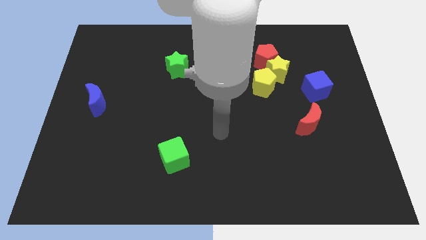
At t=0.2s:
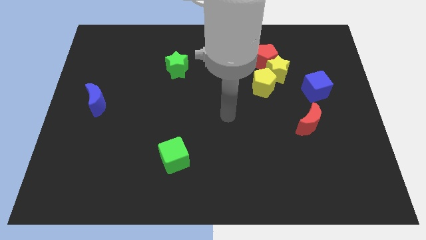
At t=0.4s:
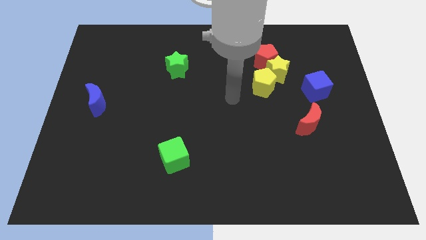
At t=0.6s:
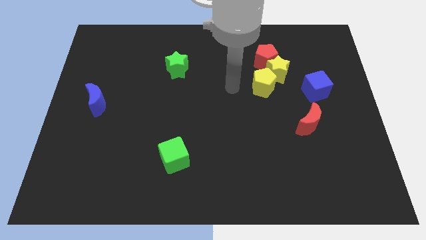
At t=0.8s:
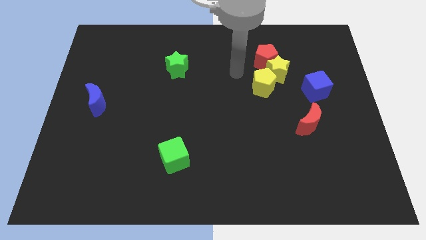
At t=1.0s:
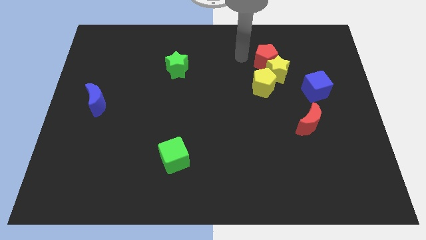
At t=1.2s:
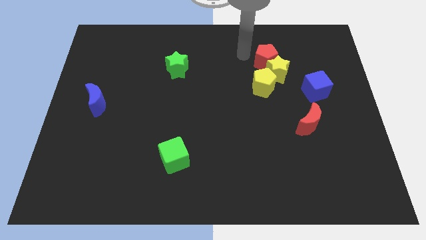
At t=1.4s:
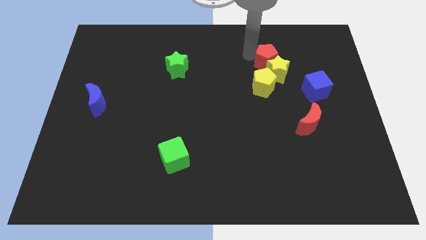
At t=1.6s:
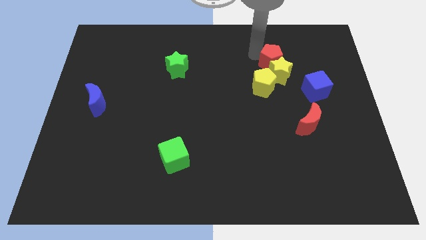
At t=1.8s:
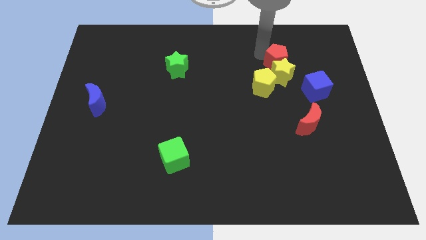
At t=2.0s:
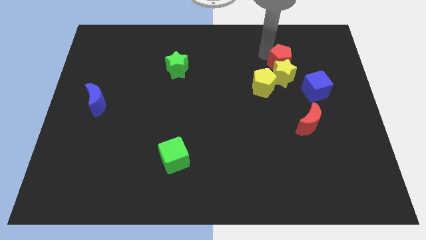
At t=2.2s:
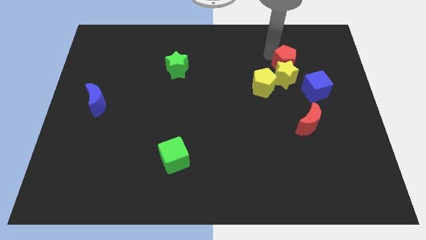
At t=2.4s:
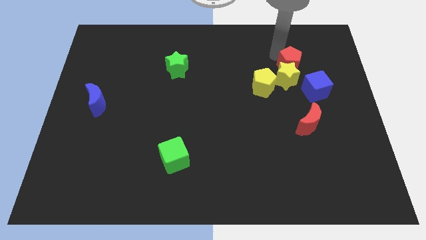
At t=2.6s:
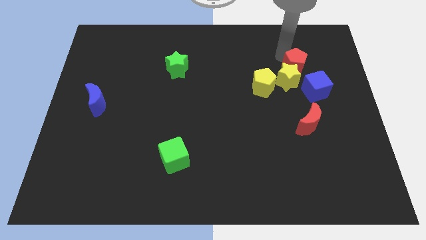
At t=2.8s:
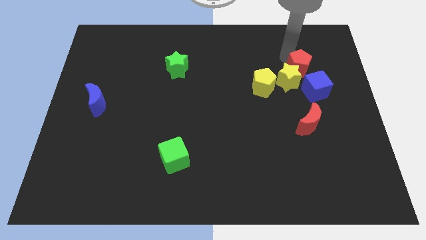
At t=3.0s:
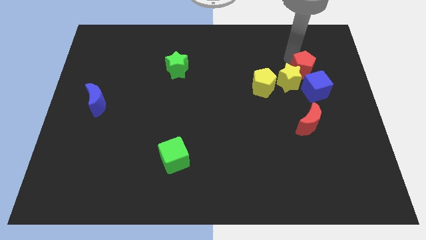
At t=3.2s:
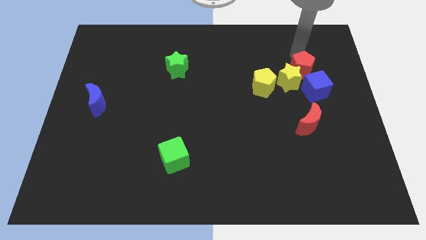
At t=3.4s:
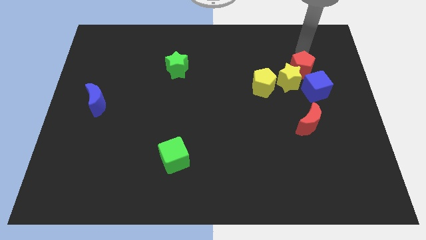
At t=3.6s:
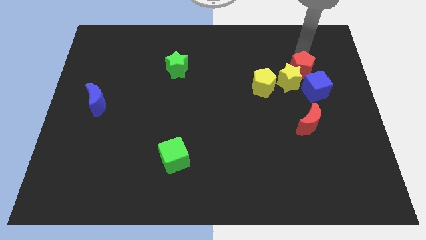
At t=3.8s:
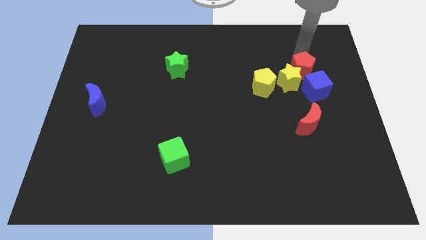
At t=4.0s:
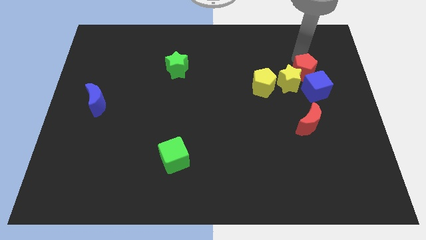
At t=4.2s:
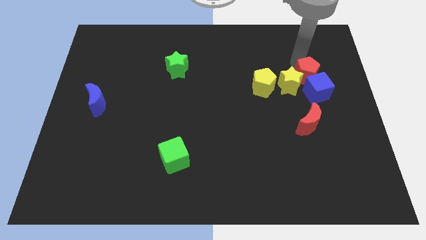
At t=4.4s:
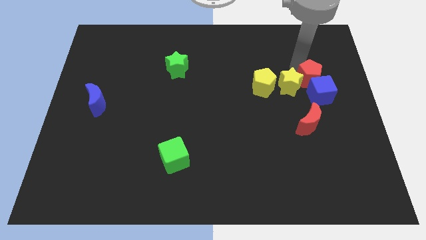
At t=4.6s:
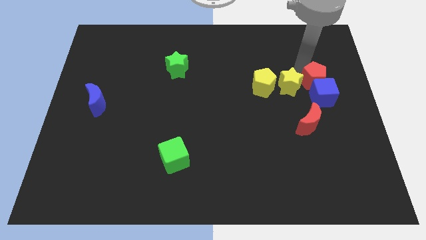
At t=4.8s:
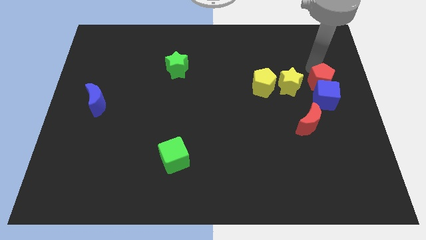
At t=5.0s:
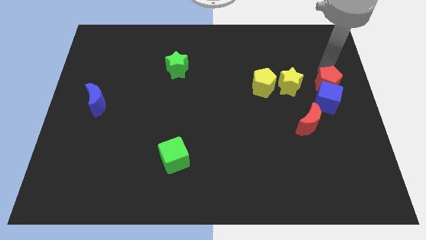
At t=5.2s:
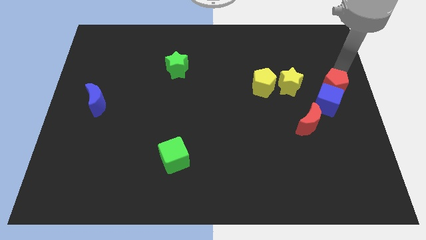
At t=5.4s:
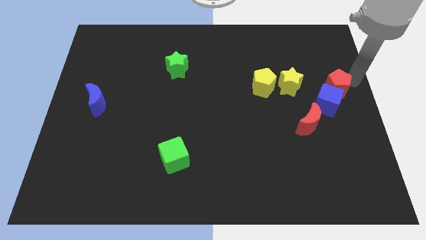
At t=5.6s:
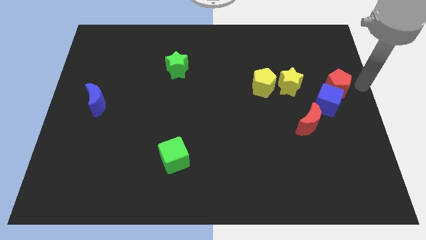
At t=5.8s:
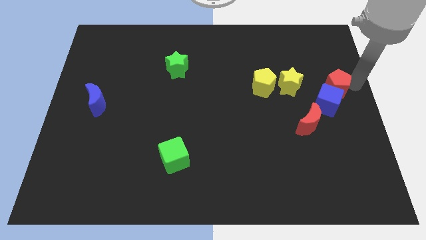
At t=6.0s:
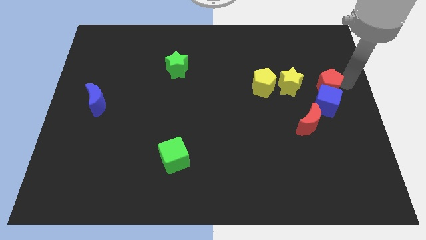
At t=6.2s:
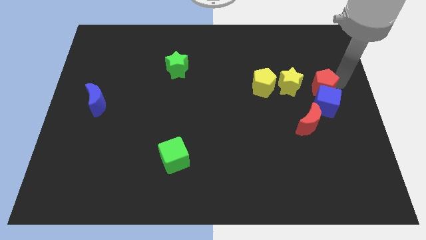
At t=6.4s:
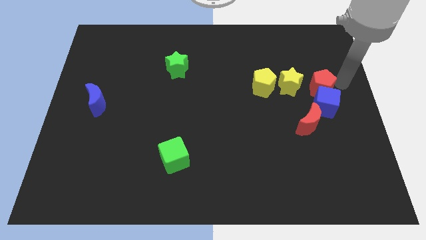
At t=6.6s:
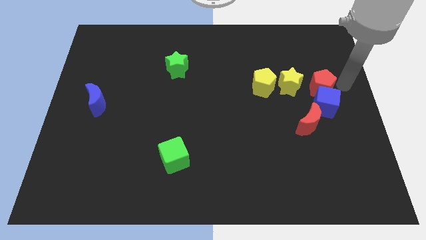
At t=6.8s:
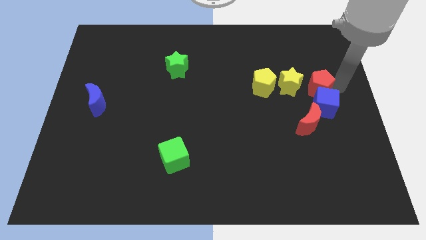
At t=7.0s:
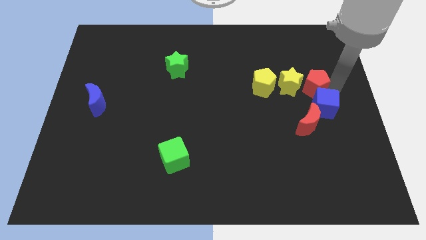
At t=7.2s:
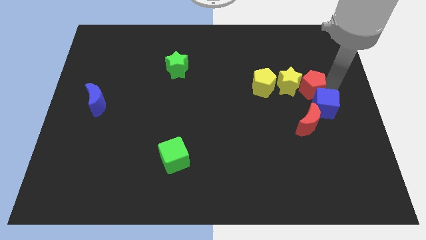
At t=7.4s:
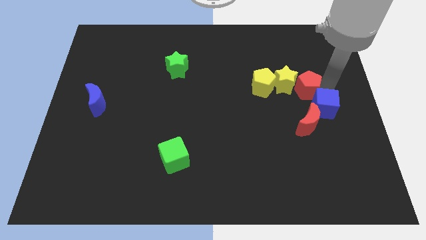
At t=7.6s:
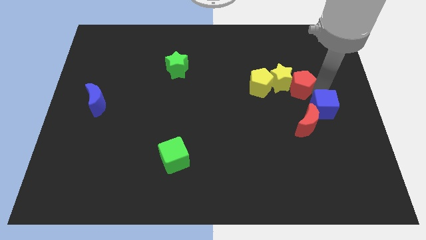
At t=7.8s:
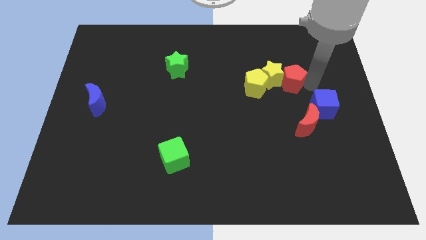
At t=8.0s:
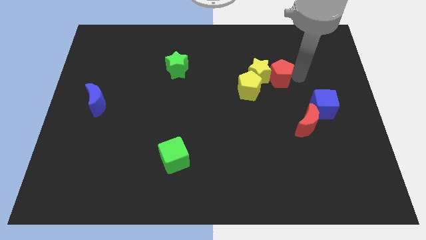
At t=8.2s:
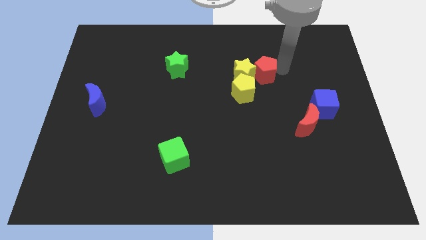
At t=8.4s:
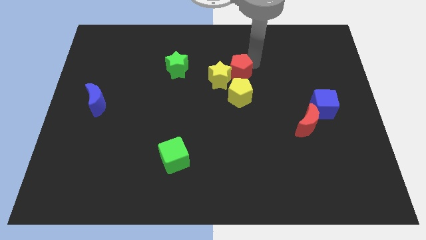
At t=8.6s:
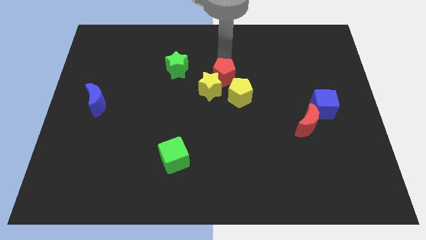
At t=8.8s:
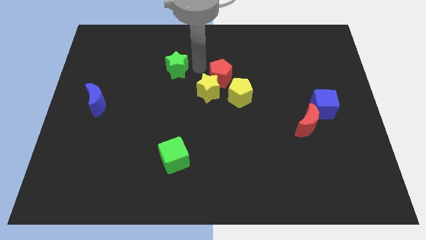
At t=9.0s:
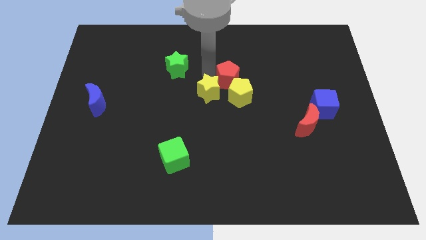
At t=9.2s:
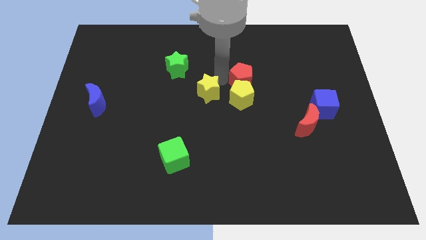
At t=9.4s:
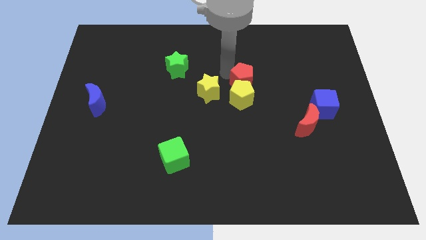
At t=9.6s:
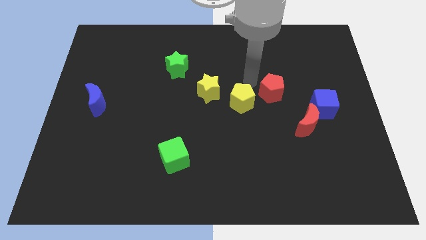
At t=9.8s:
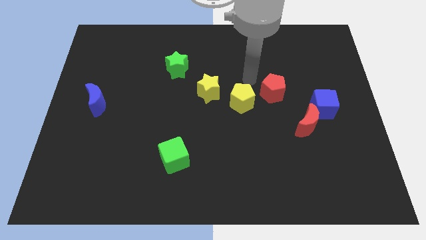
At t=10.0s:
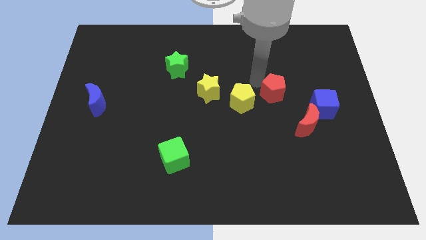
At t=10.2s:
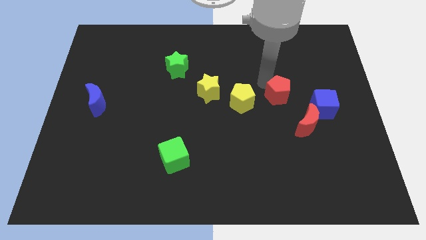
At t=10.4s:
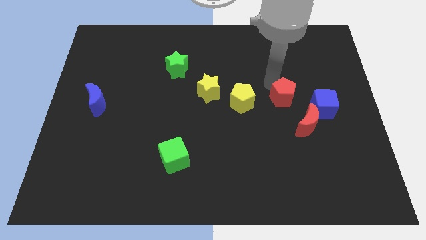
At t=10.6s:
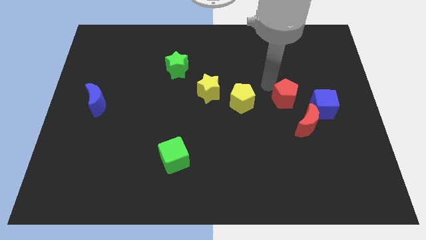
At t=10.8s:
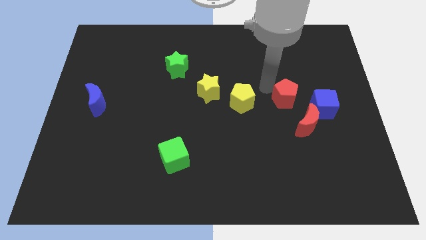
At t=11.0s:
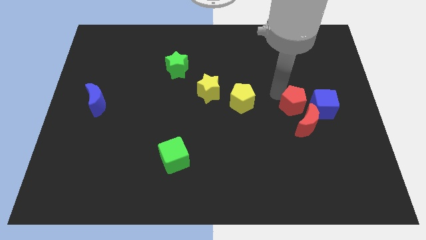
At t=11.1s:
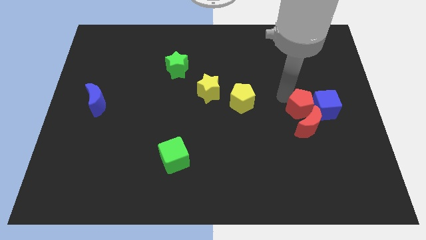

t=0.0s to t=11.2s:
slide the red pentagon next to the red moon

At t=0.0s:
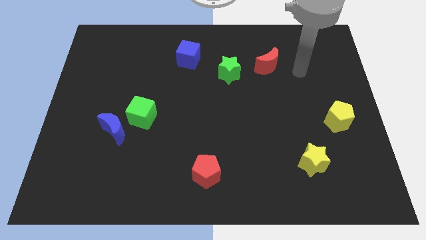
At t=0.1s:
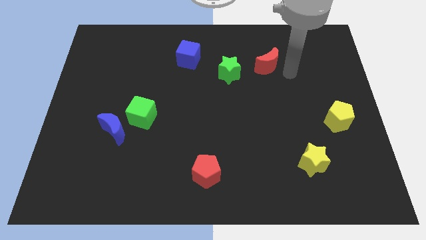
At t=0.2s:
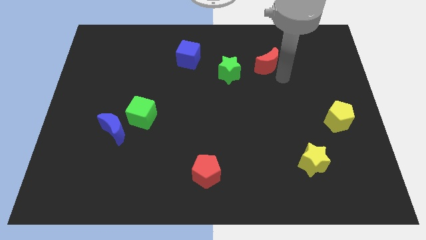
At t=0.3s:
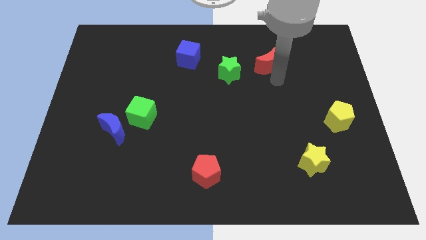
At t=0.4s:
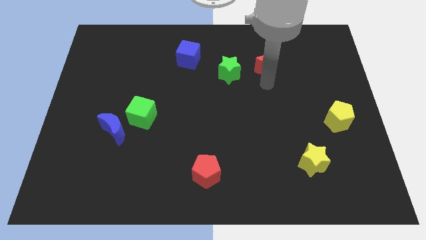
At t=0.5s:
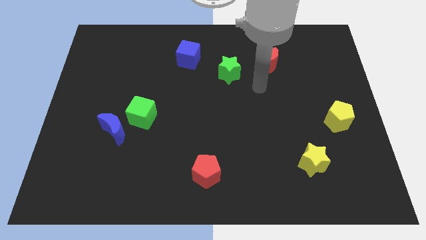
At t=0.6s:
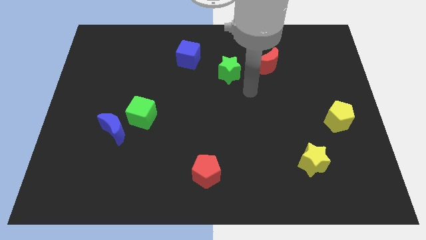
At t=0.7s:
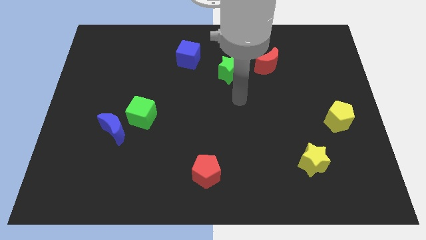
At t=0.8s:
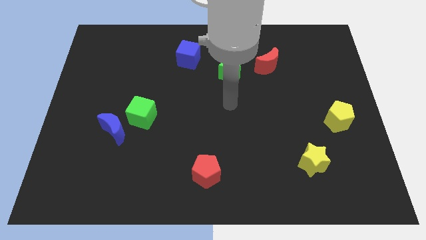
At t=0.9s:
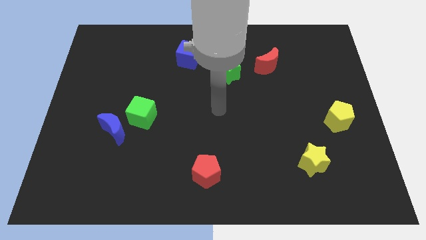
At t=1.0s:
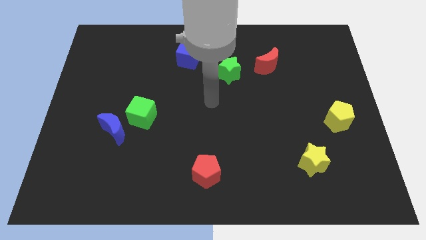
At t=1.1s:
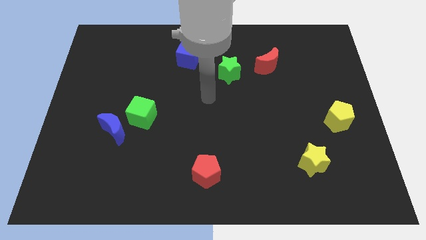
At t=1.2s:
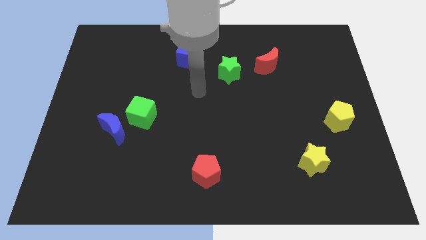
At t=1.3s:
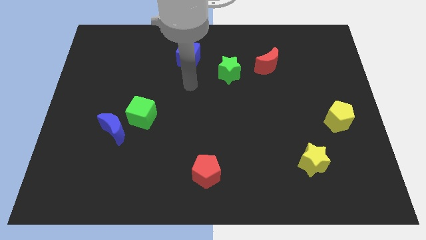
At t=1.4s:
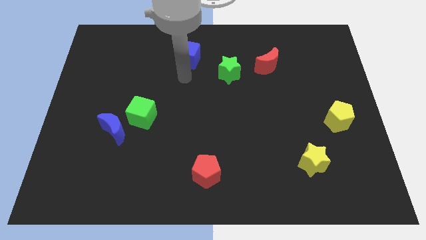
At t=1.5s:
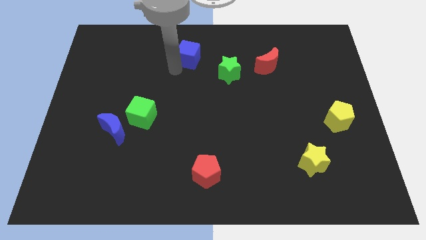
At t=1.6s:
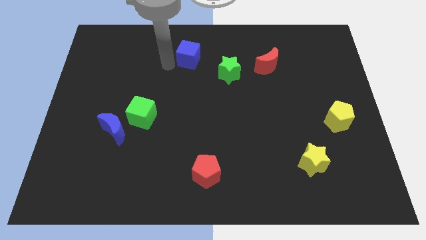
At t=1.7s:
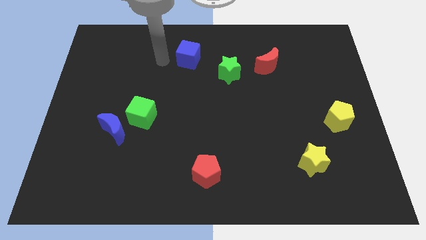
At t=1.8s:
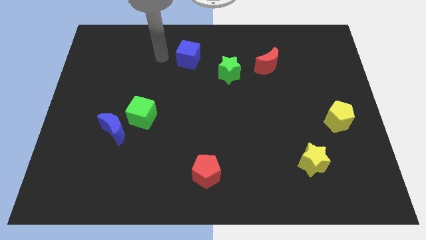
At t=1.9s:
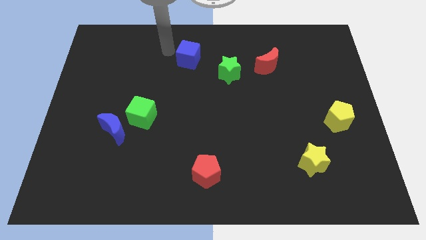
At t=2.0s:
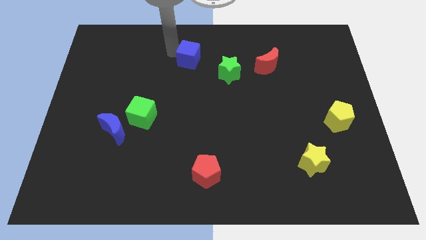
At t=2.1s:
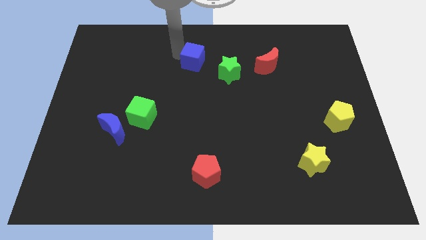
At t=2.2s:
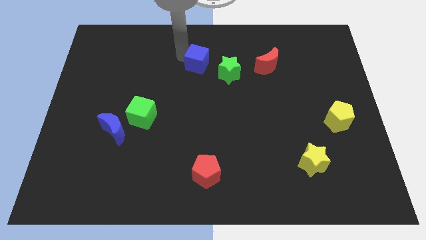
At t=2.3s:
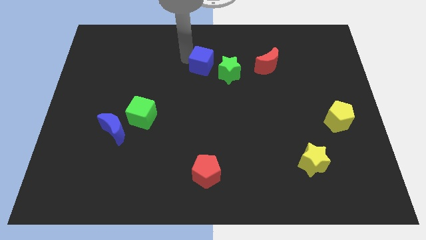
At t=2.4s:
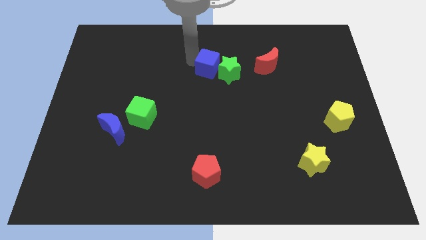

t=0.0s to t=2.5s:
push the blue cube towards the green star
